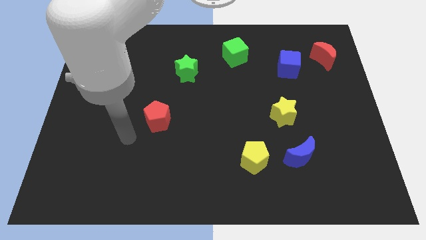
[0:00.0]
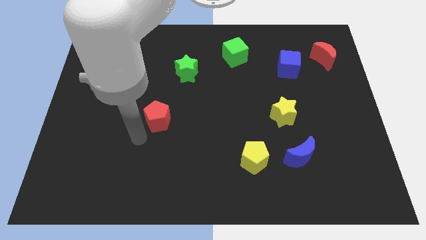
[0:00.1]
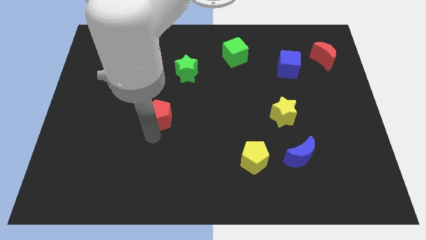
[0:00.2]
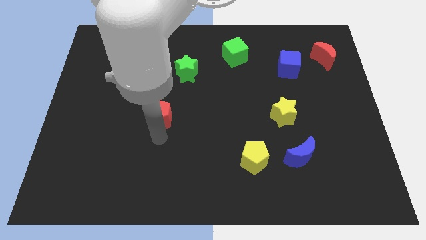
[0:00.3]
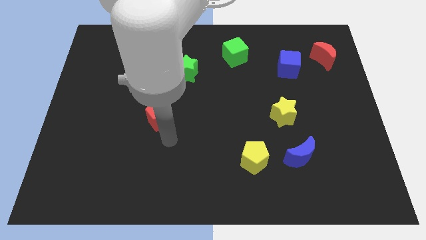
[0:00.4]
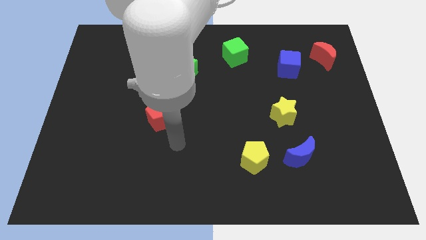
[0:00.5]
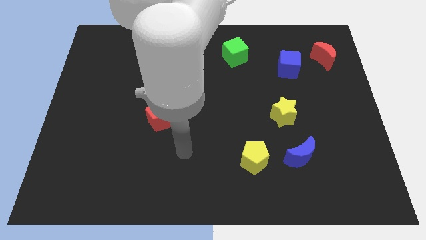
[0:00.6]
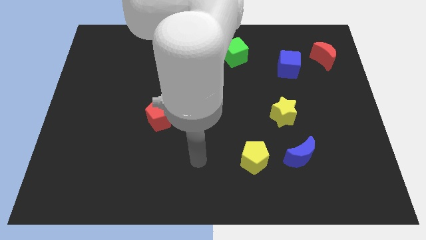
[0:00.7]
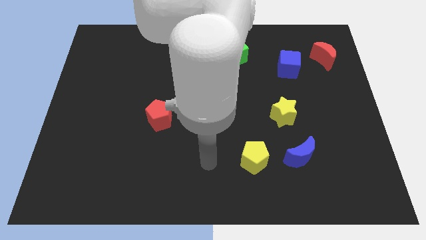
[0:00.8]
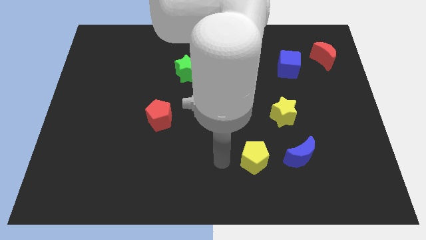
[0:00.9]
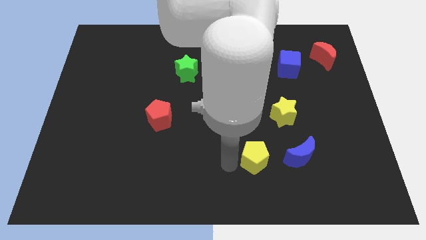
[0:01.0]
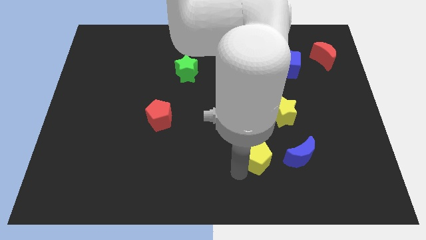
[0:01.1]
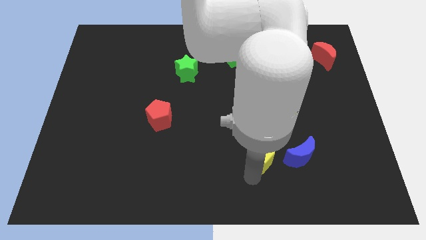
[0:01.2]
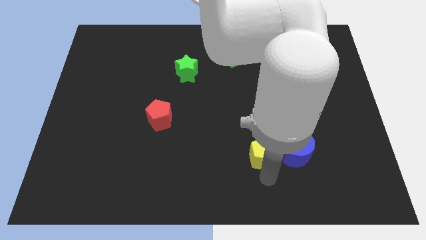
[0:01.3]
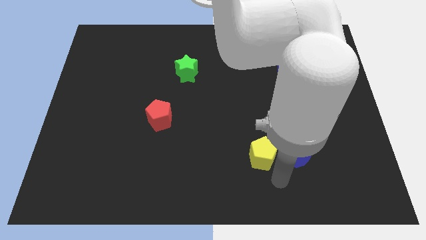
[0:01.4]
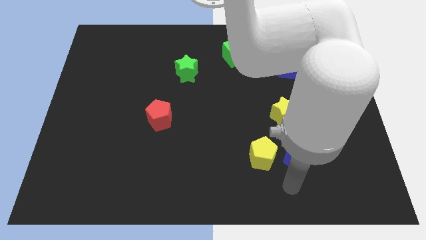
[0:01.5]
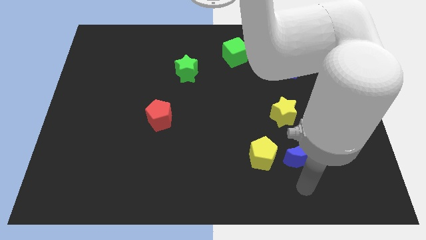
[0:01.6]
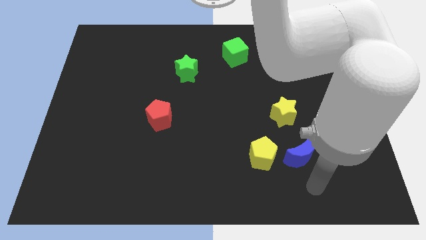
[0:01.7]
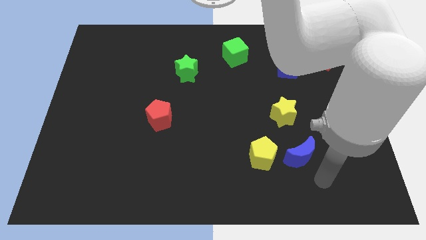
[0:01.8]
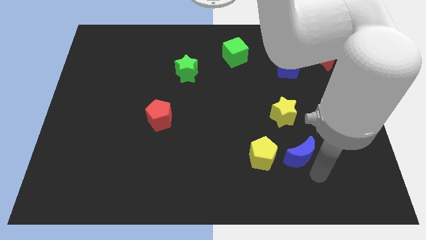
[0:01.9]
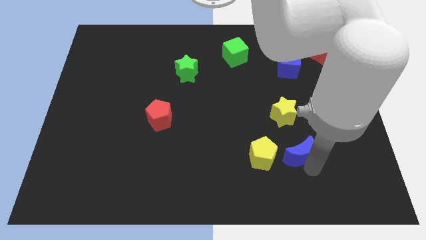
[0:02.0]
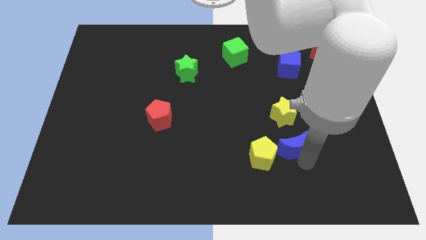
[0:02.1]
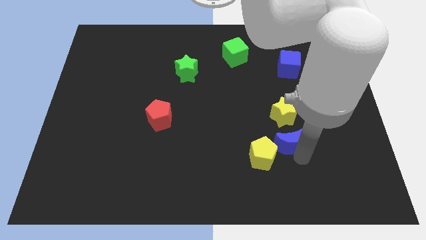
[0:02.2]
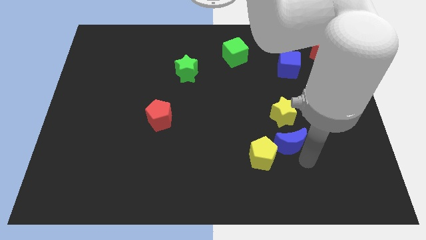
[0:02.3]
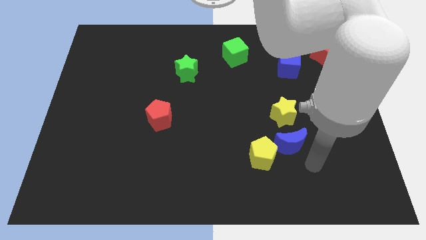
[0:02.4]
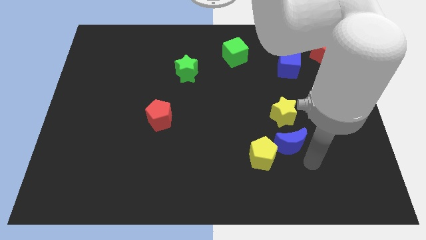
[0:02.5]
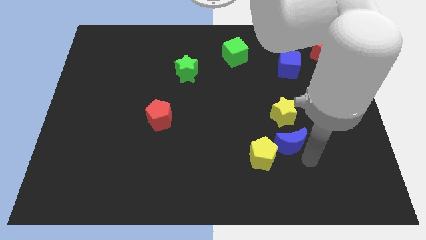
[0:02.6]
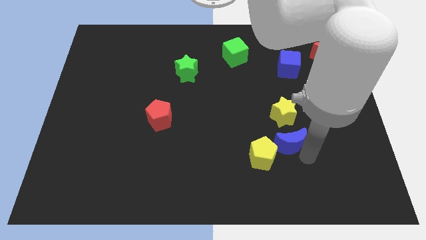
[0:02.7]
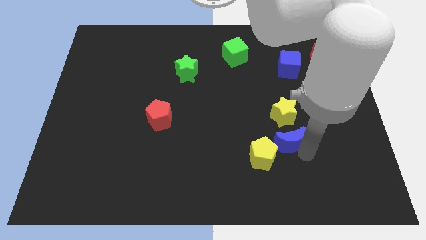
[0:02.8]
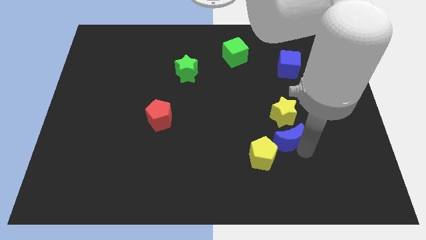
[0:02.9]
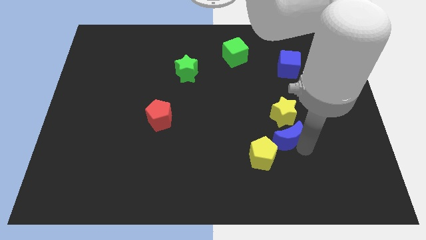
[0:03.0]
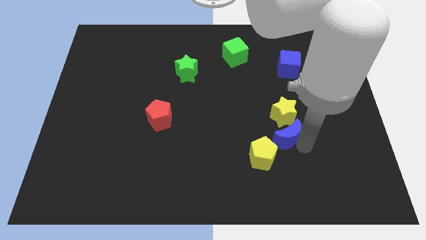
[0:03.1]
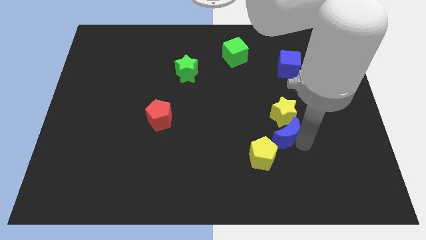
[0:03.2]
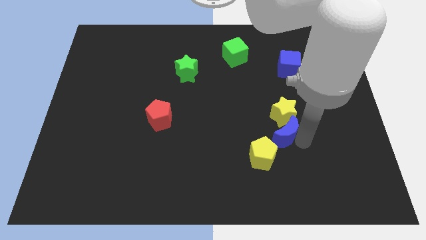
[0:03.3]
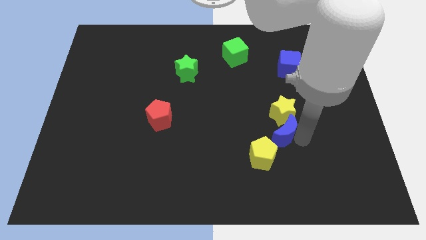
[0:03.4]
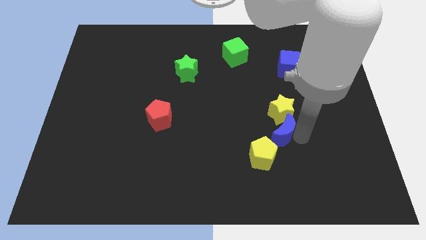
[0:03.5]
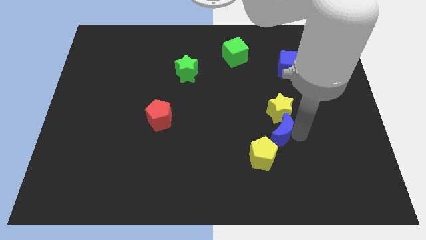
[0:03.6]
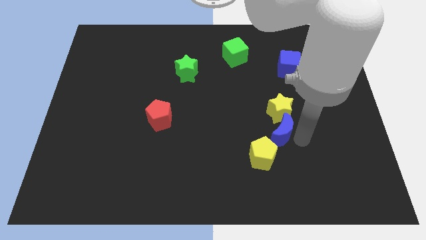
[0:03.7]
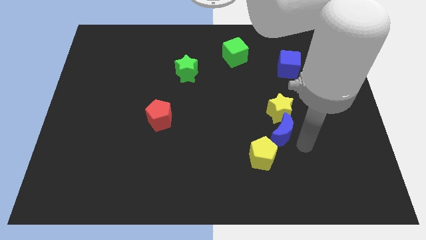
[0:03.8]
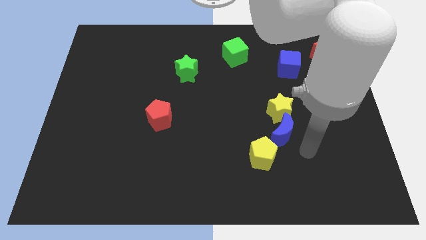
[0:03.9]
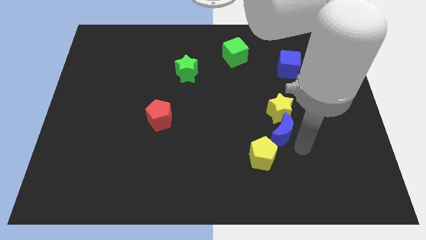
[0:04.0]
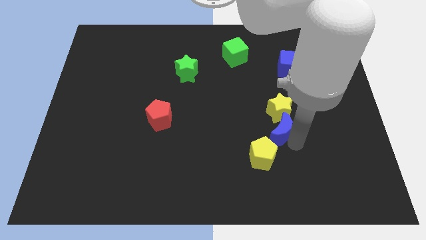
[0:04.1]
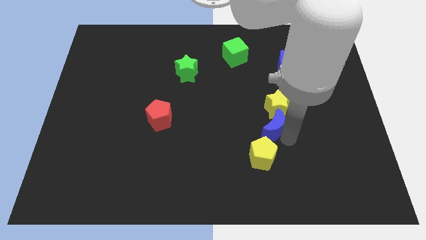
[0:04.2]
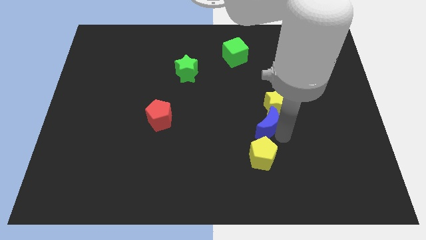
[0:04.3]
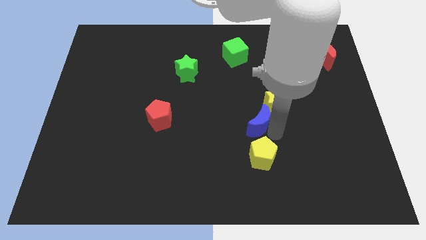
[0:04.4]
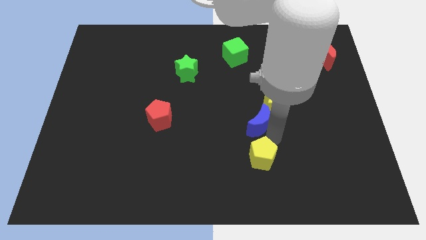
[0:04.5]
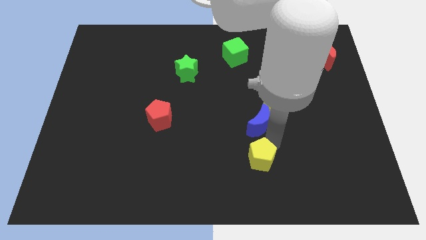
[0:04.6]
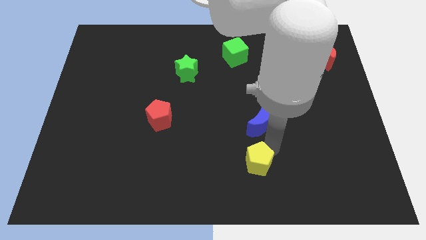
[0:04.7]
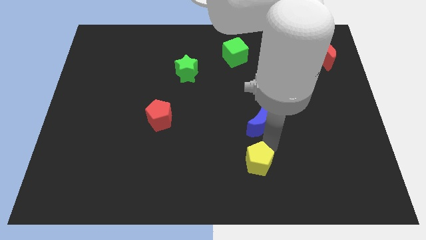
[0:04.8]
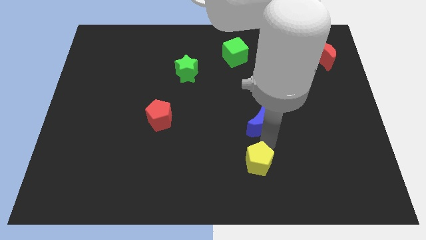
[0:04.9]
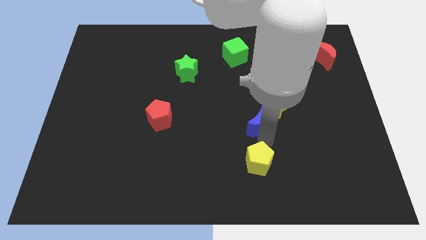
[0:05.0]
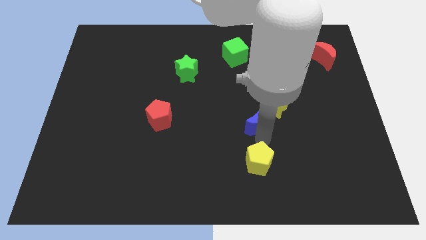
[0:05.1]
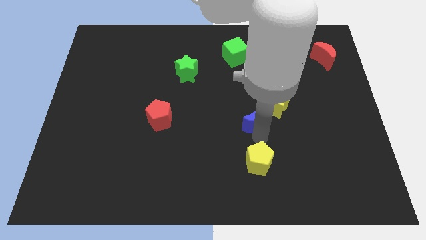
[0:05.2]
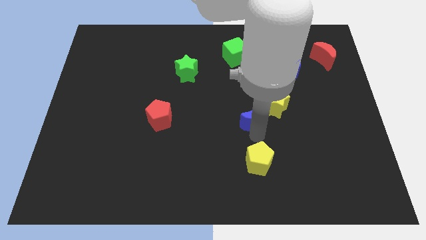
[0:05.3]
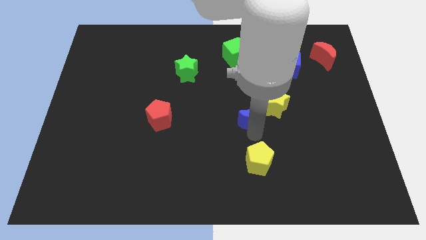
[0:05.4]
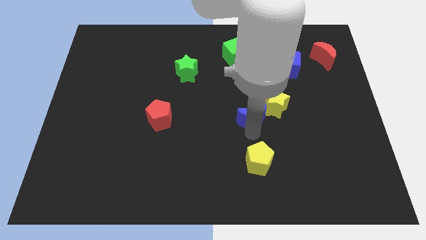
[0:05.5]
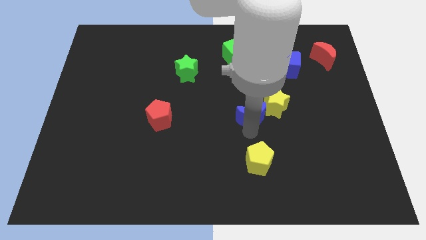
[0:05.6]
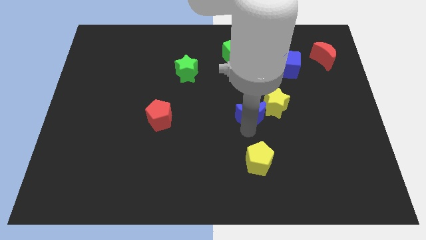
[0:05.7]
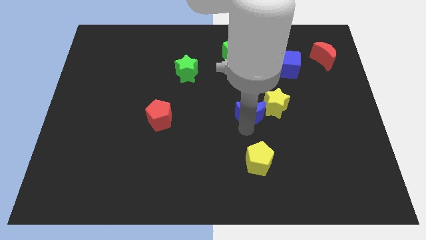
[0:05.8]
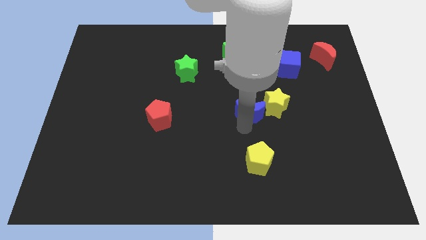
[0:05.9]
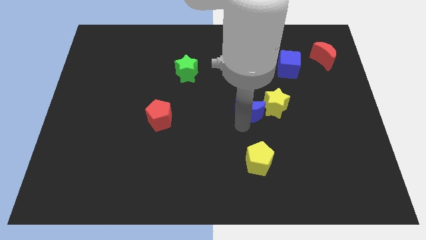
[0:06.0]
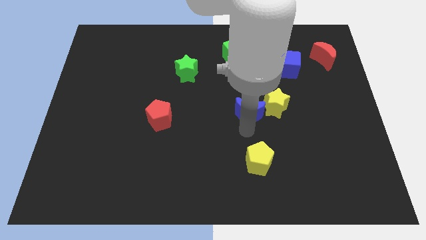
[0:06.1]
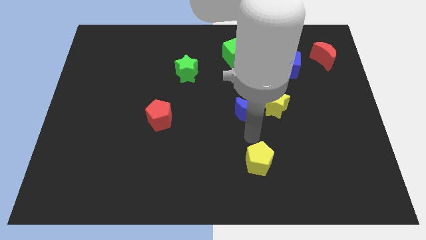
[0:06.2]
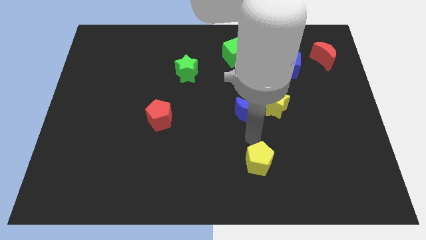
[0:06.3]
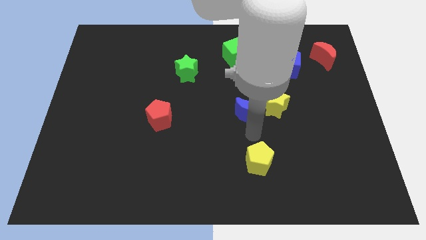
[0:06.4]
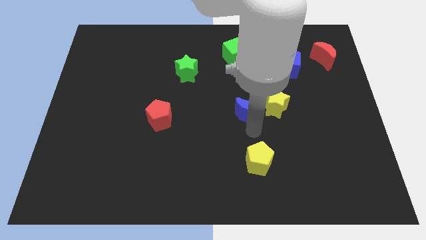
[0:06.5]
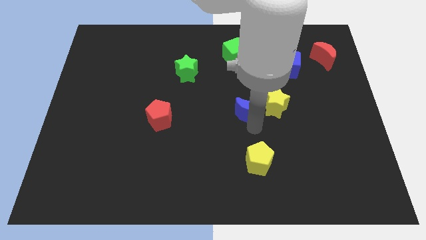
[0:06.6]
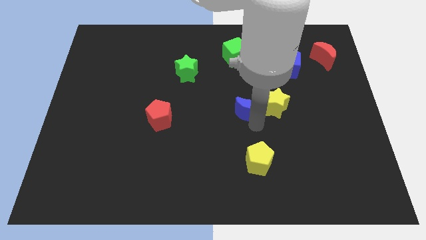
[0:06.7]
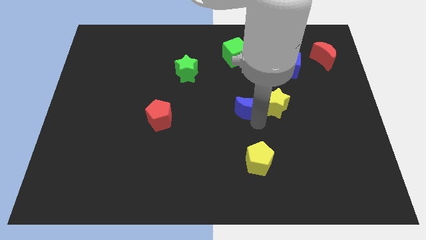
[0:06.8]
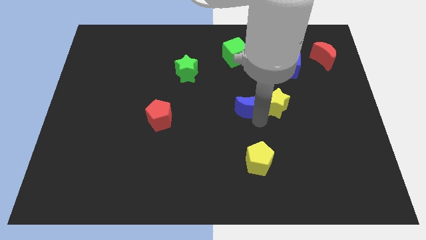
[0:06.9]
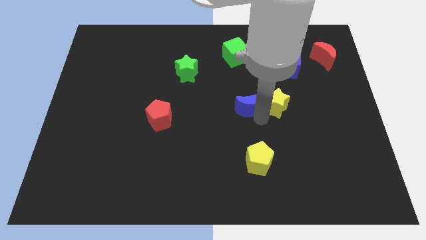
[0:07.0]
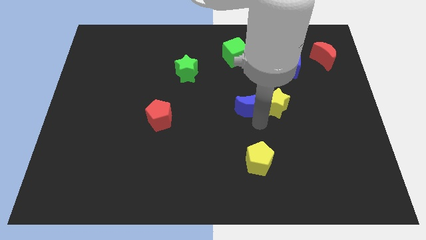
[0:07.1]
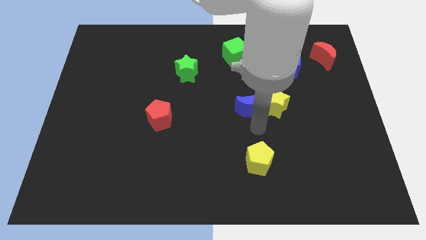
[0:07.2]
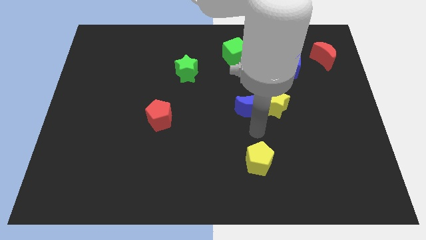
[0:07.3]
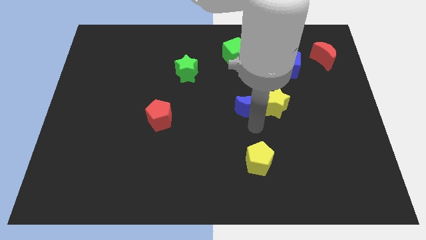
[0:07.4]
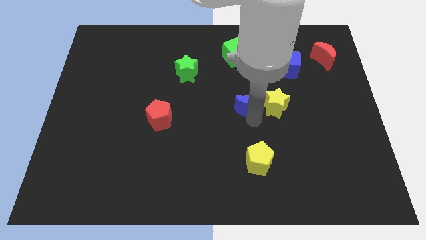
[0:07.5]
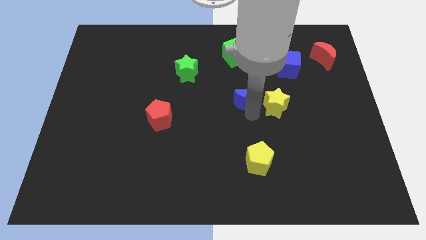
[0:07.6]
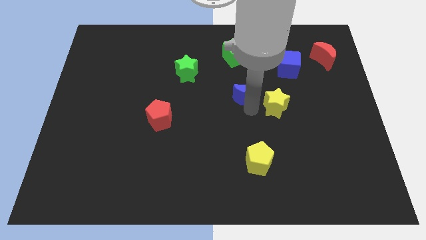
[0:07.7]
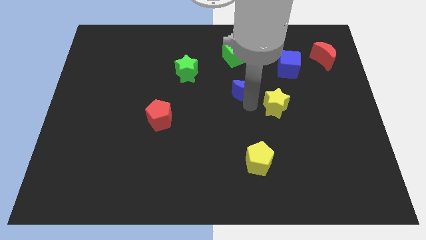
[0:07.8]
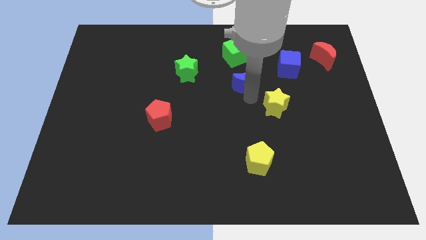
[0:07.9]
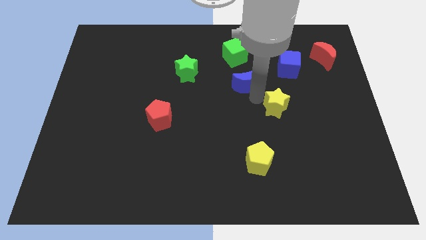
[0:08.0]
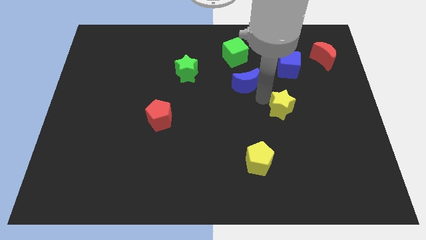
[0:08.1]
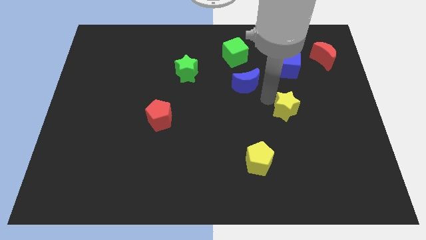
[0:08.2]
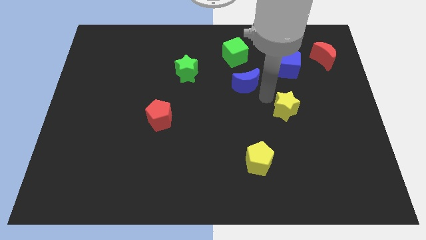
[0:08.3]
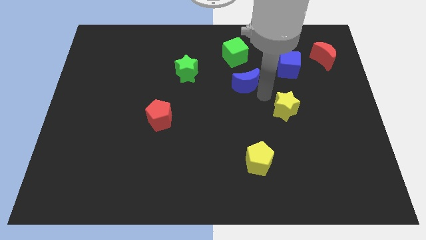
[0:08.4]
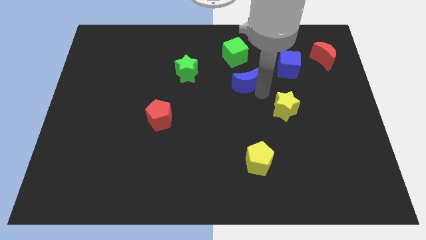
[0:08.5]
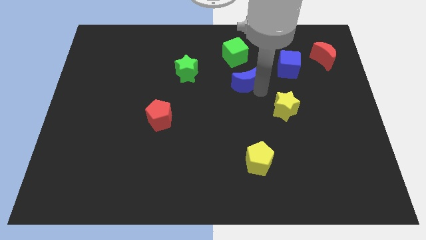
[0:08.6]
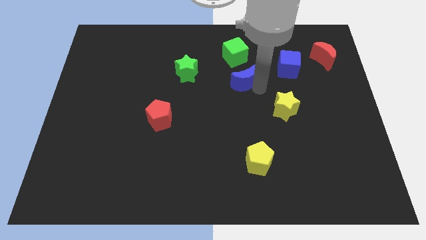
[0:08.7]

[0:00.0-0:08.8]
push the blue moon to the right side of the green star
